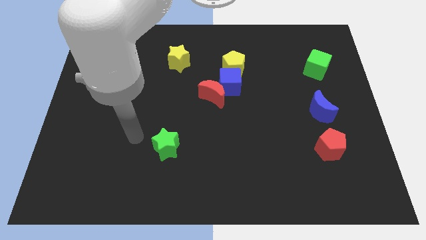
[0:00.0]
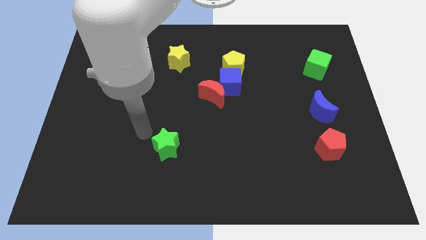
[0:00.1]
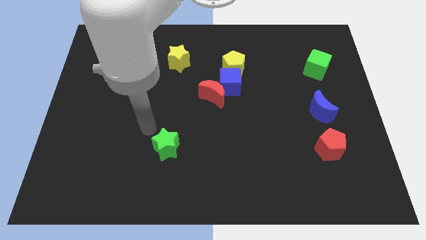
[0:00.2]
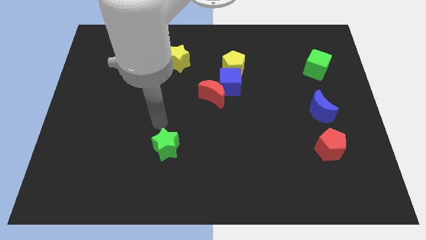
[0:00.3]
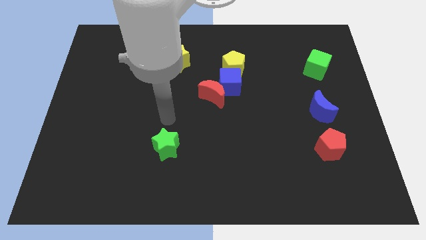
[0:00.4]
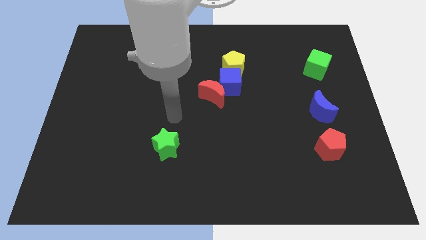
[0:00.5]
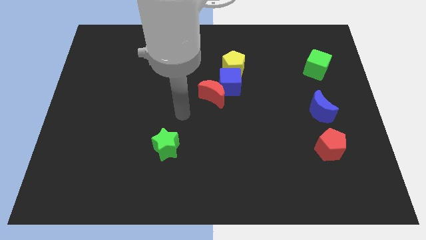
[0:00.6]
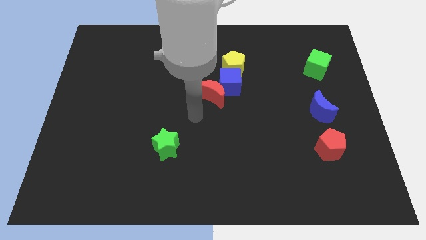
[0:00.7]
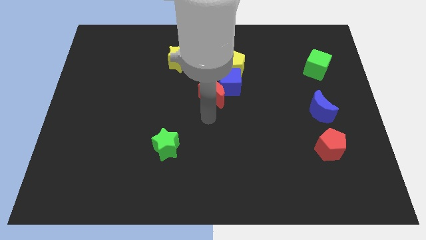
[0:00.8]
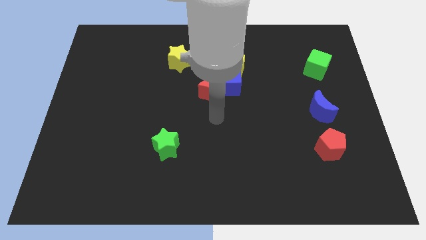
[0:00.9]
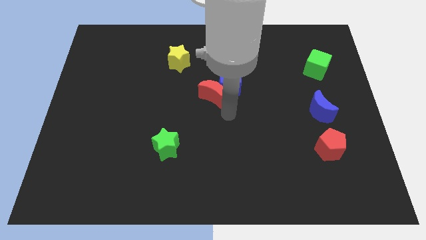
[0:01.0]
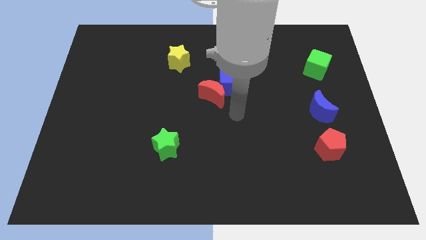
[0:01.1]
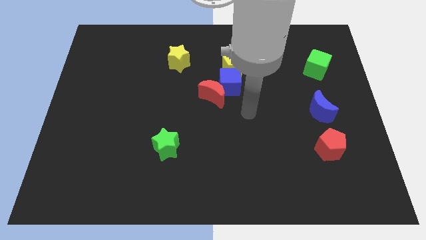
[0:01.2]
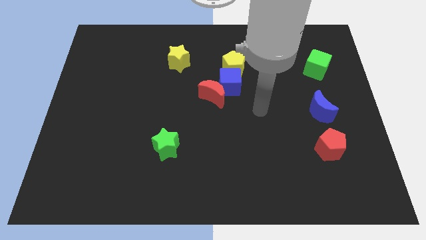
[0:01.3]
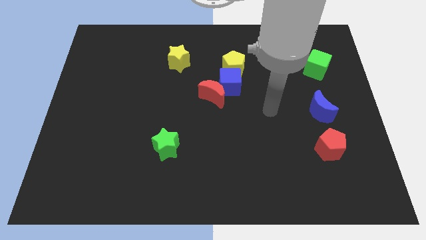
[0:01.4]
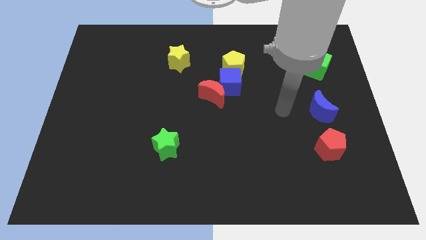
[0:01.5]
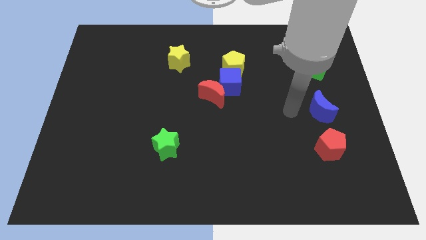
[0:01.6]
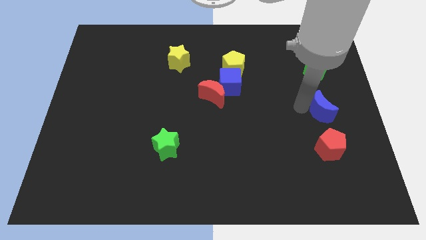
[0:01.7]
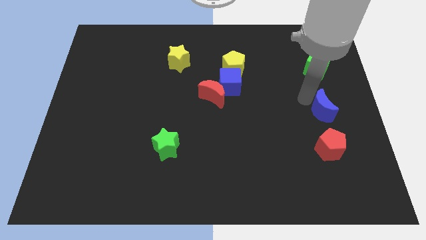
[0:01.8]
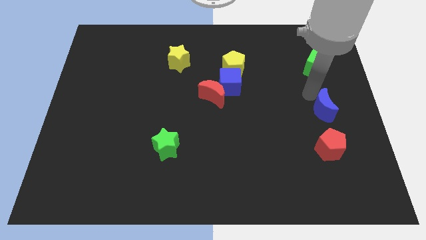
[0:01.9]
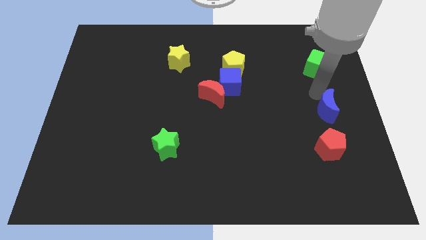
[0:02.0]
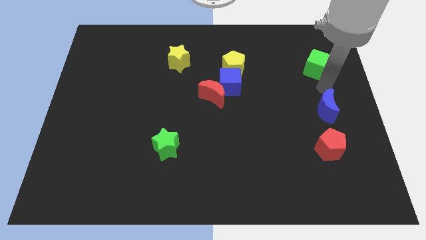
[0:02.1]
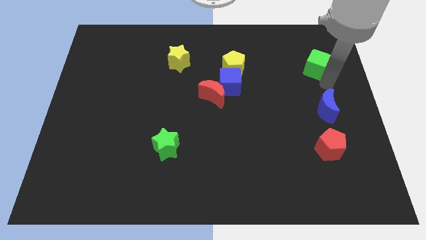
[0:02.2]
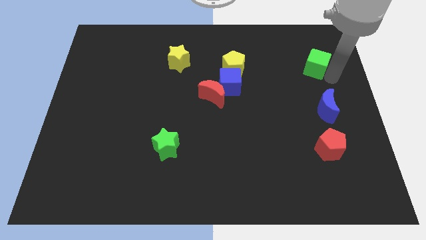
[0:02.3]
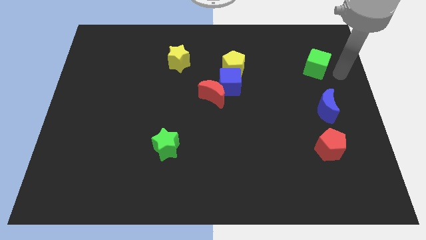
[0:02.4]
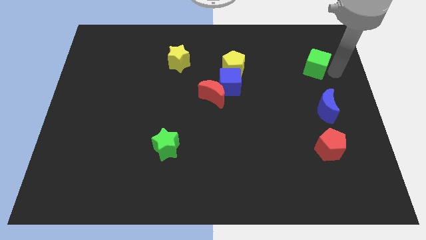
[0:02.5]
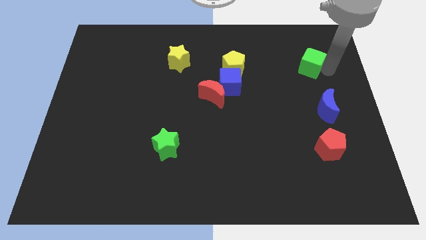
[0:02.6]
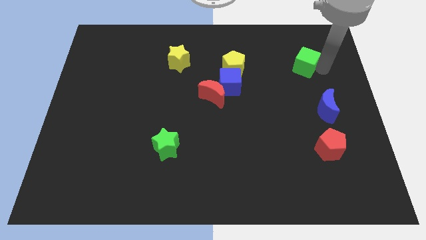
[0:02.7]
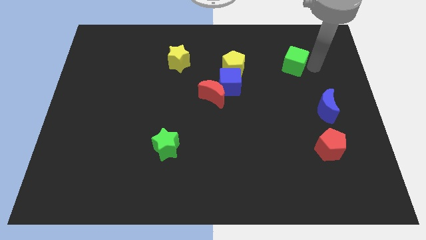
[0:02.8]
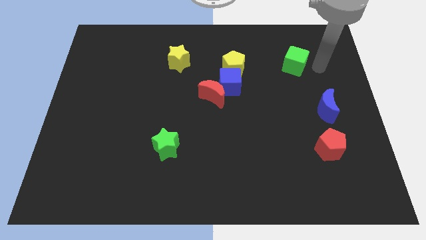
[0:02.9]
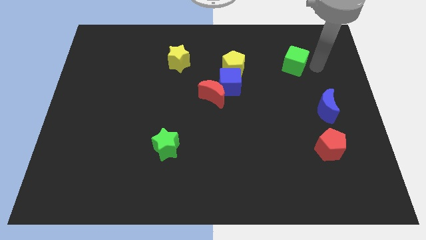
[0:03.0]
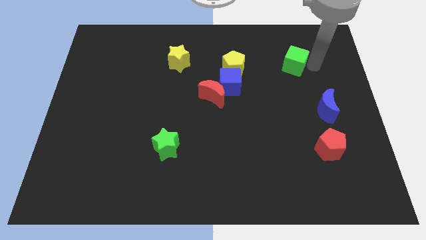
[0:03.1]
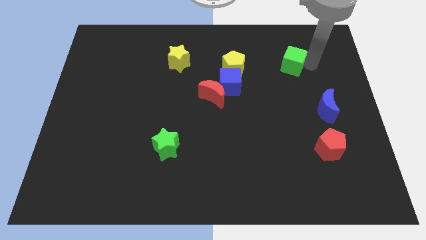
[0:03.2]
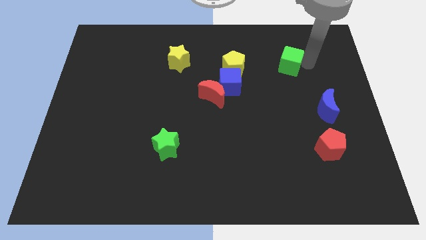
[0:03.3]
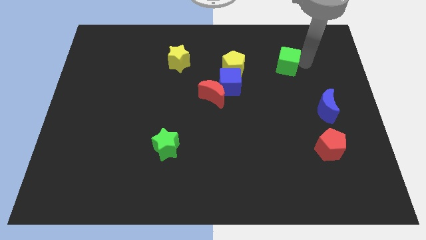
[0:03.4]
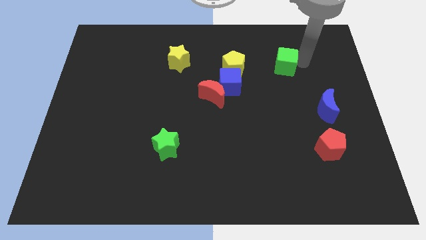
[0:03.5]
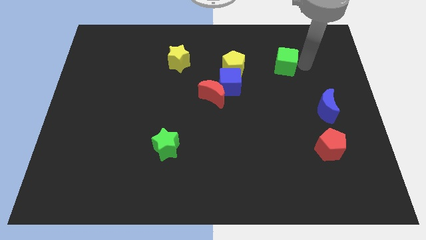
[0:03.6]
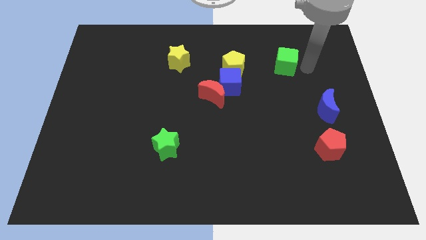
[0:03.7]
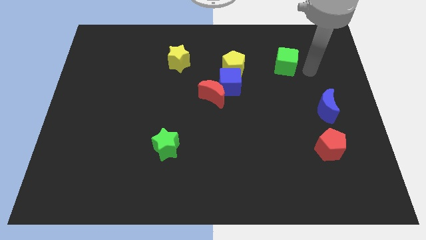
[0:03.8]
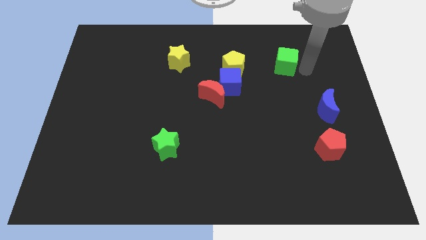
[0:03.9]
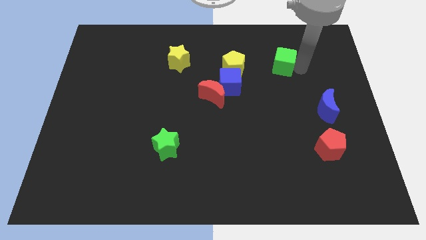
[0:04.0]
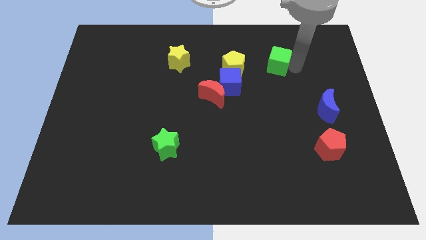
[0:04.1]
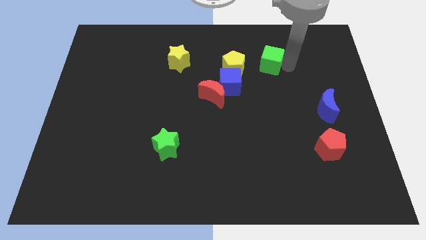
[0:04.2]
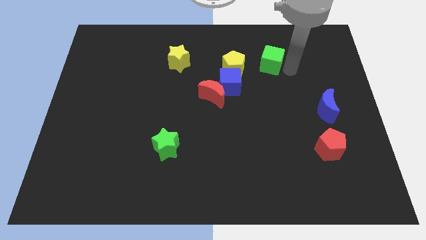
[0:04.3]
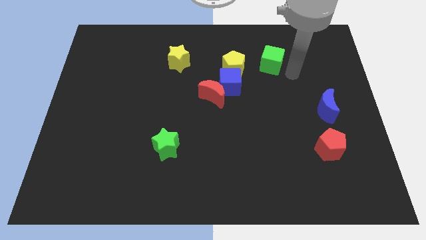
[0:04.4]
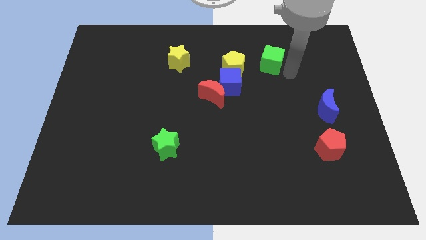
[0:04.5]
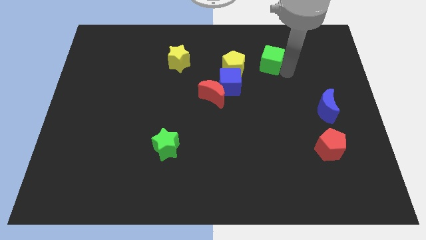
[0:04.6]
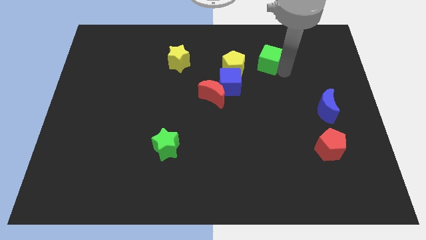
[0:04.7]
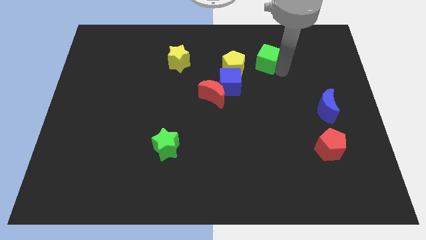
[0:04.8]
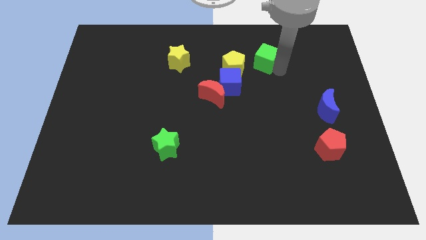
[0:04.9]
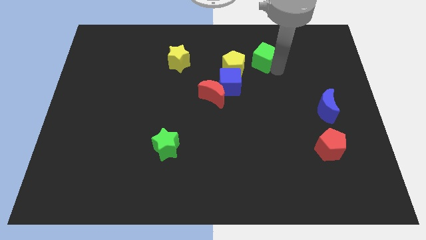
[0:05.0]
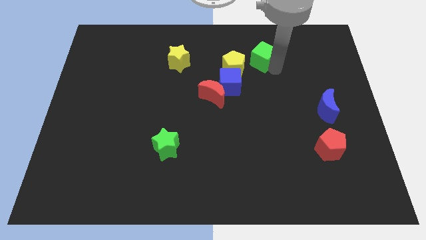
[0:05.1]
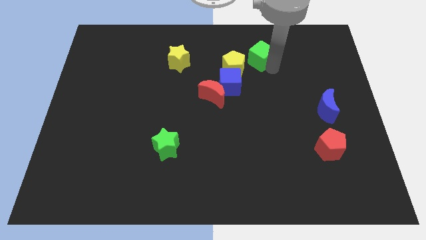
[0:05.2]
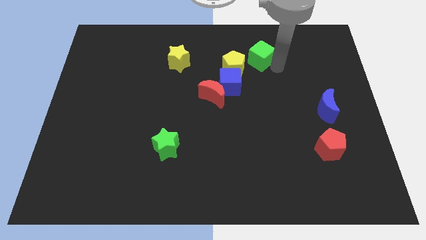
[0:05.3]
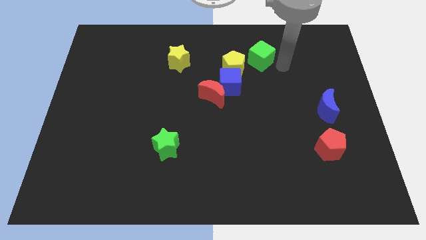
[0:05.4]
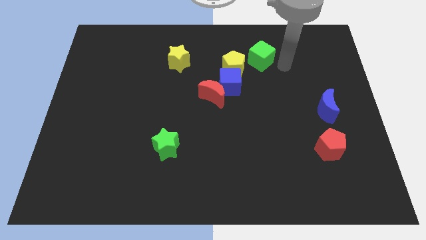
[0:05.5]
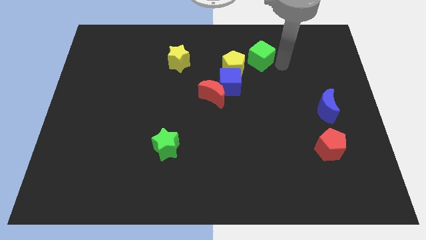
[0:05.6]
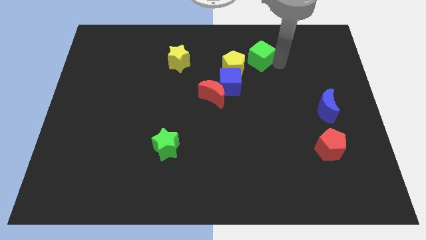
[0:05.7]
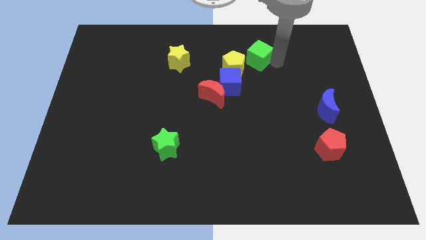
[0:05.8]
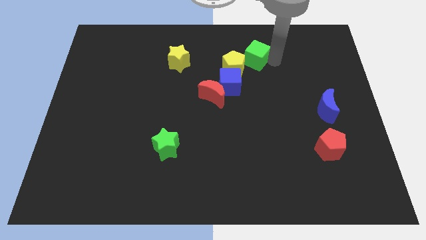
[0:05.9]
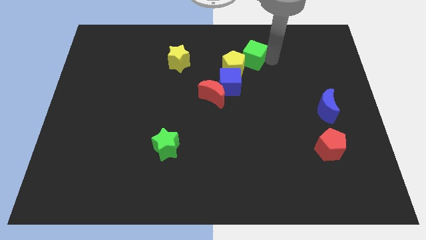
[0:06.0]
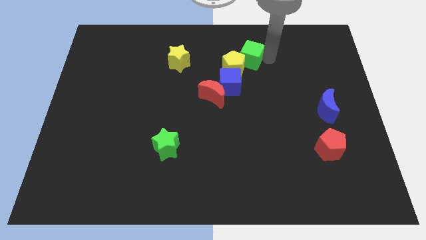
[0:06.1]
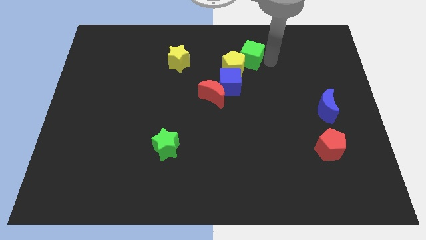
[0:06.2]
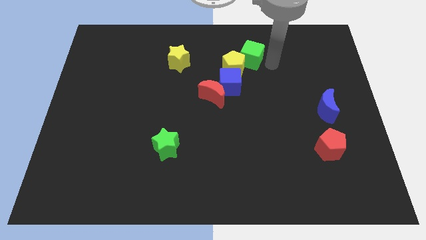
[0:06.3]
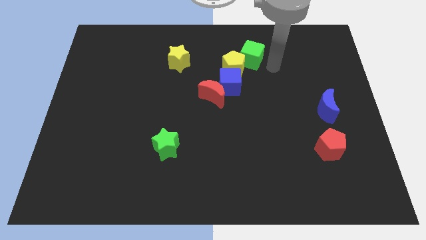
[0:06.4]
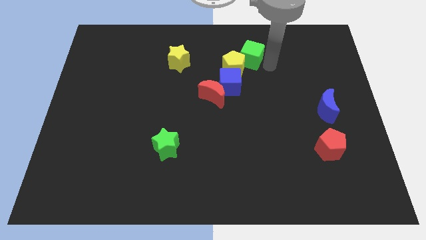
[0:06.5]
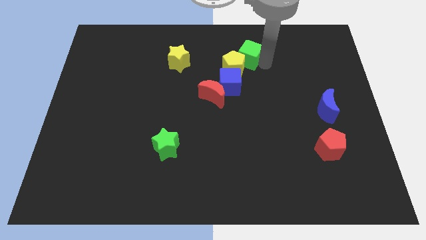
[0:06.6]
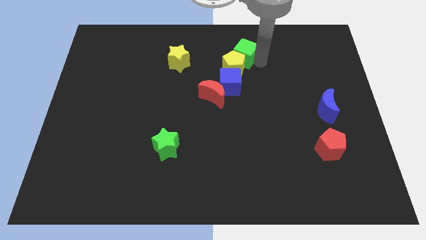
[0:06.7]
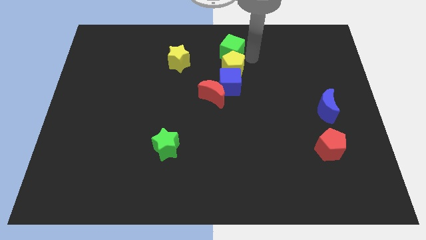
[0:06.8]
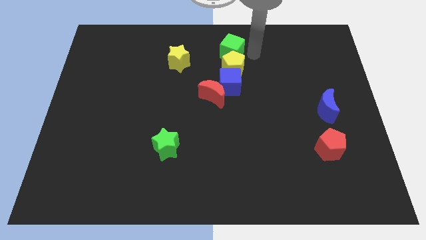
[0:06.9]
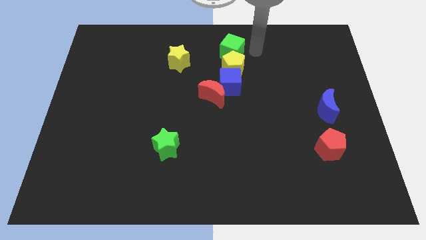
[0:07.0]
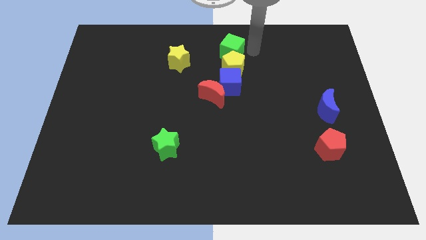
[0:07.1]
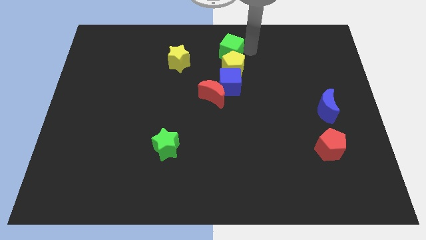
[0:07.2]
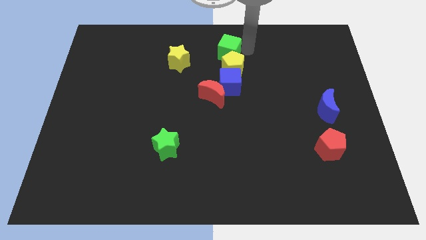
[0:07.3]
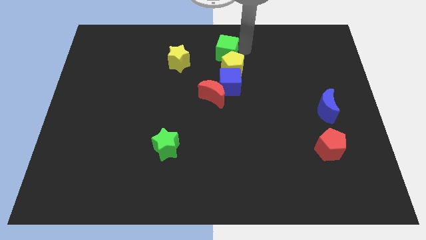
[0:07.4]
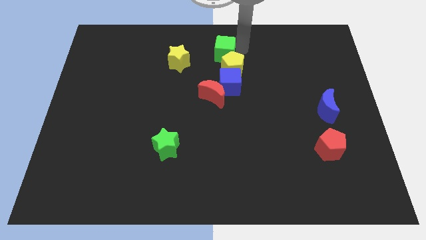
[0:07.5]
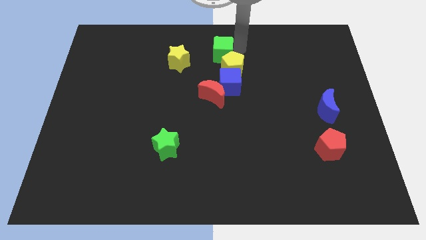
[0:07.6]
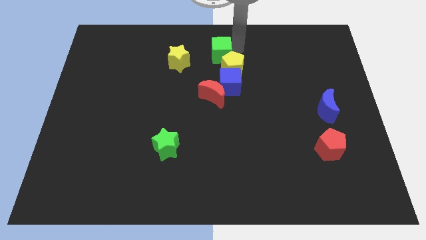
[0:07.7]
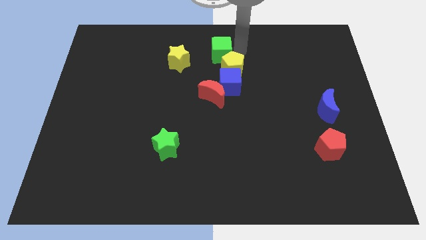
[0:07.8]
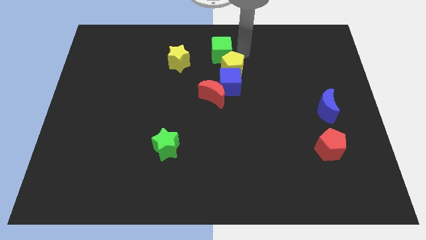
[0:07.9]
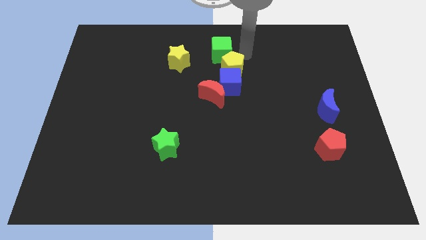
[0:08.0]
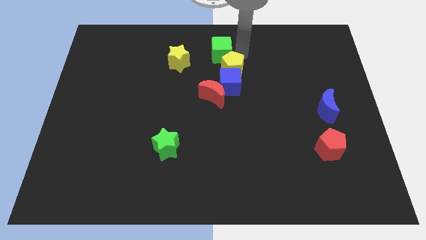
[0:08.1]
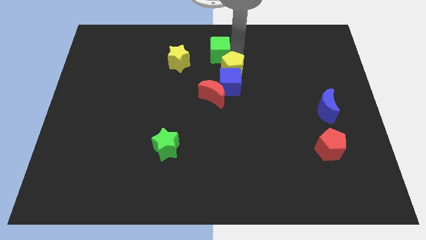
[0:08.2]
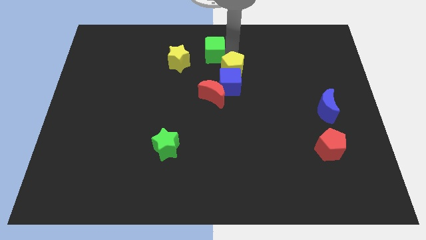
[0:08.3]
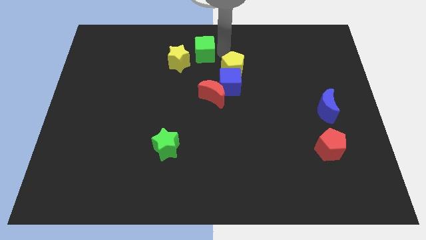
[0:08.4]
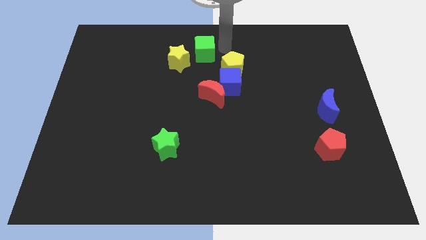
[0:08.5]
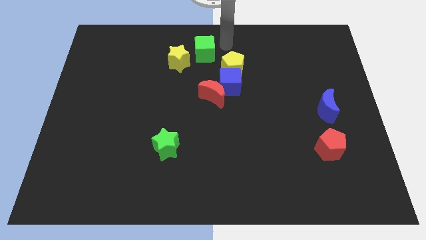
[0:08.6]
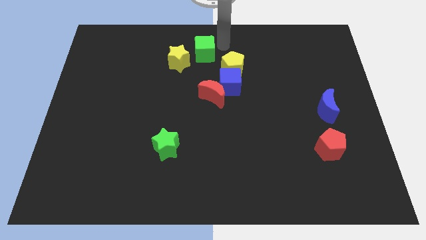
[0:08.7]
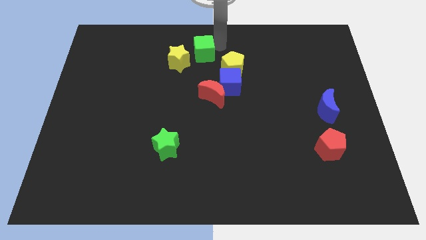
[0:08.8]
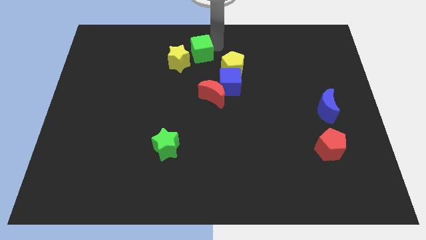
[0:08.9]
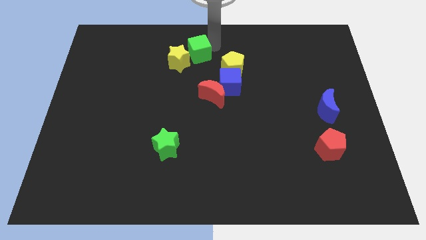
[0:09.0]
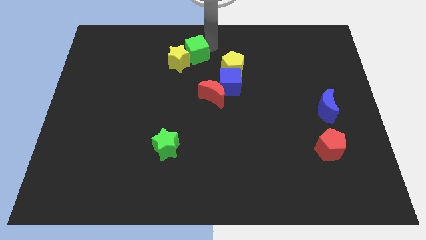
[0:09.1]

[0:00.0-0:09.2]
slide the green cube next to the yellow star
